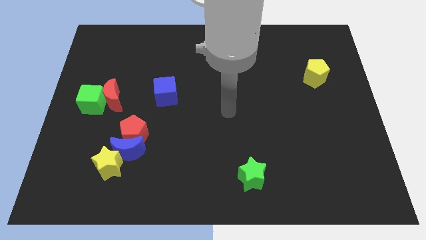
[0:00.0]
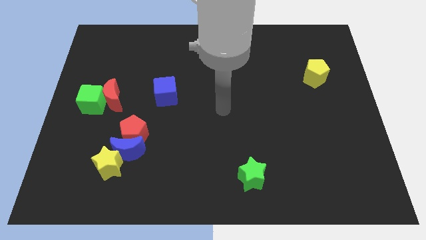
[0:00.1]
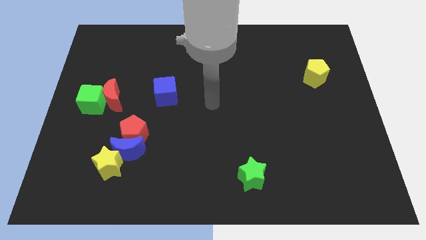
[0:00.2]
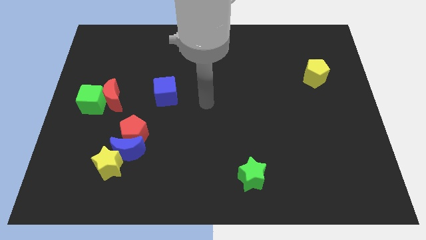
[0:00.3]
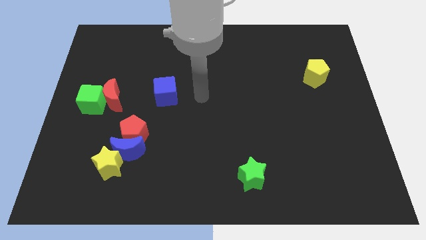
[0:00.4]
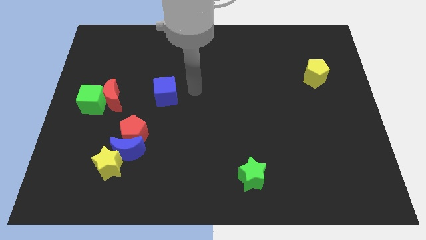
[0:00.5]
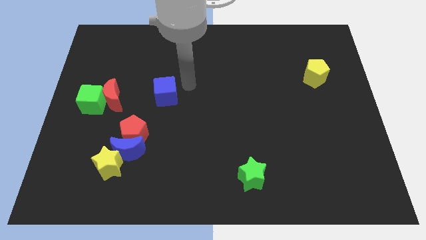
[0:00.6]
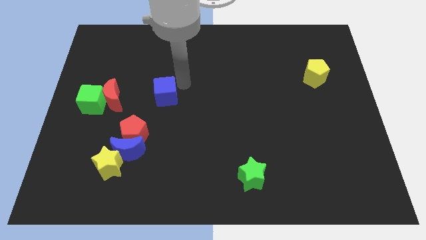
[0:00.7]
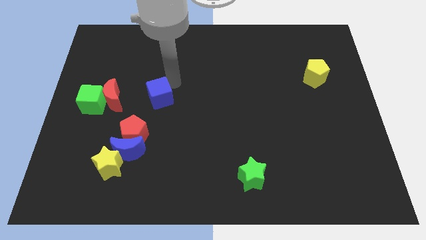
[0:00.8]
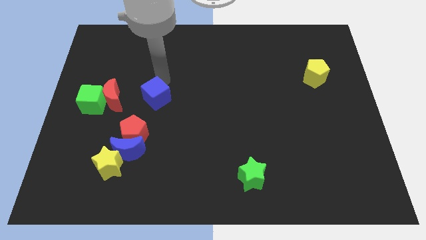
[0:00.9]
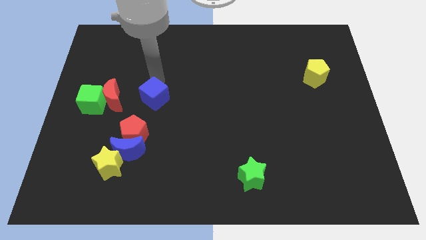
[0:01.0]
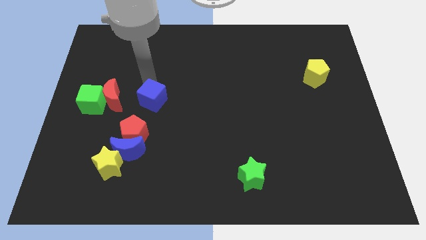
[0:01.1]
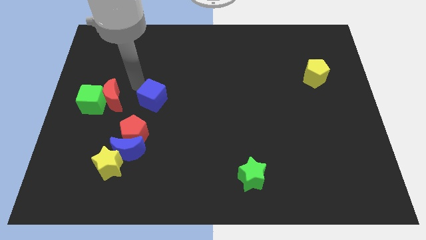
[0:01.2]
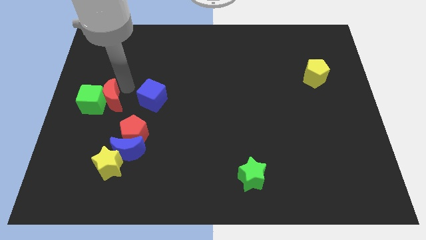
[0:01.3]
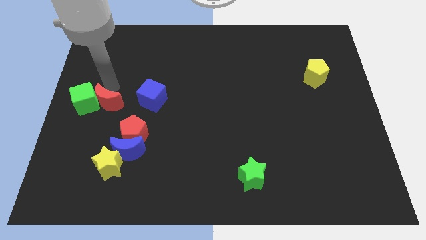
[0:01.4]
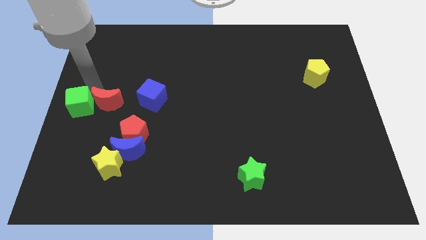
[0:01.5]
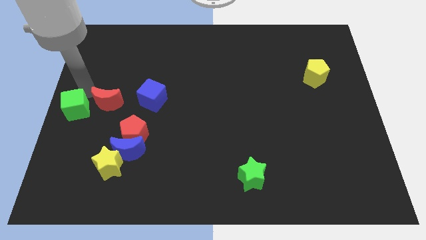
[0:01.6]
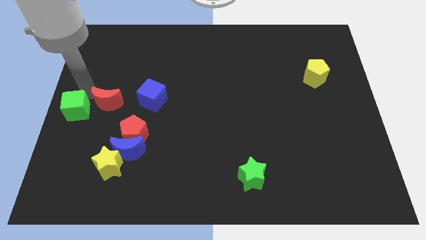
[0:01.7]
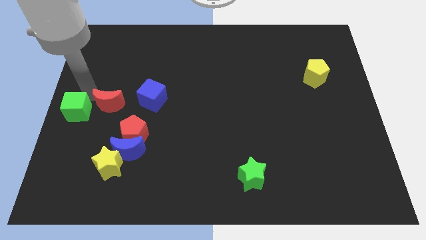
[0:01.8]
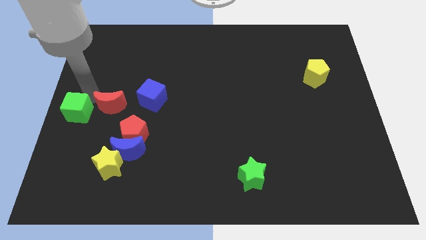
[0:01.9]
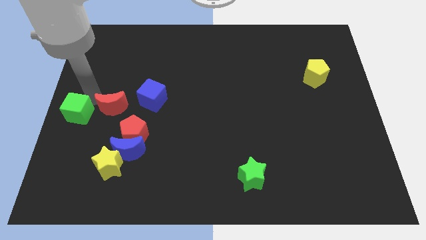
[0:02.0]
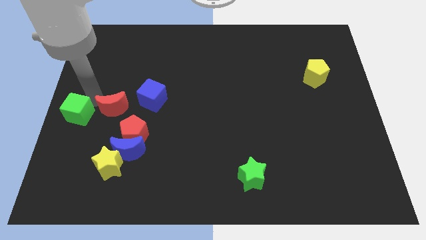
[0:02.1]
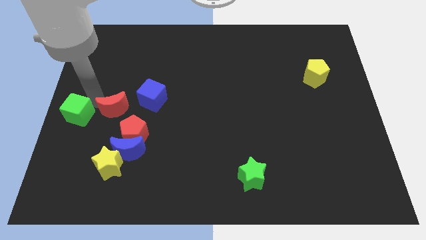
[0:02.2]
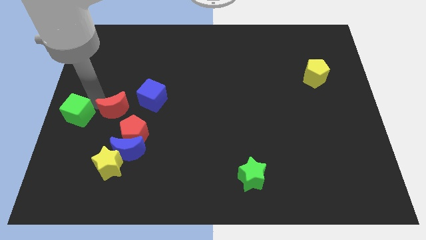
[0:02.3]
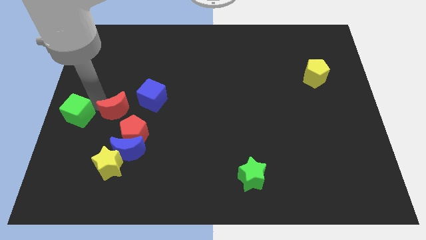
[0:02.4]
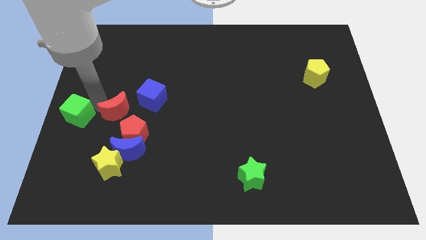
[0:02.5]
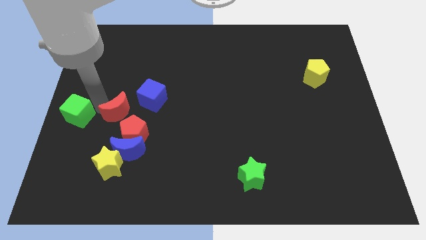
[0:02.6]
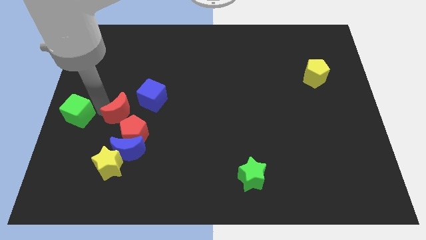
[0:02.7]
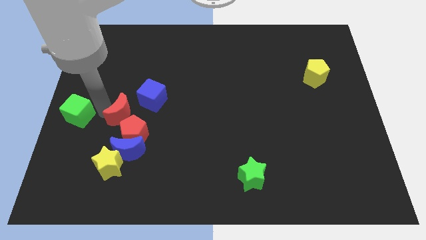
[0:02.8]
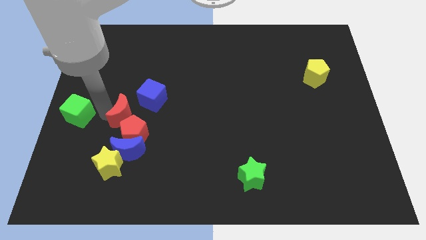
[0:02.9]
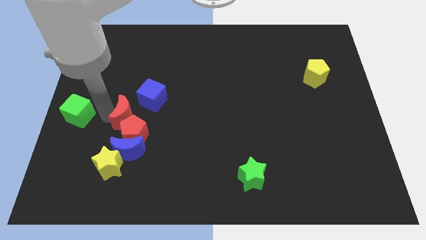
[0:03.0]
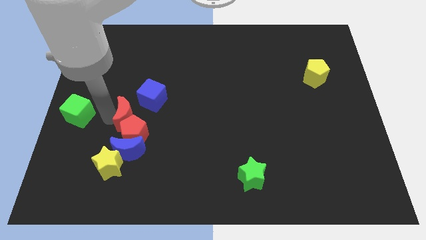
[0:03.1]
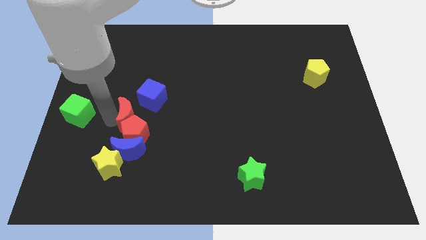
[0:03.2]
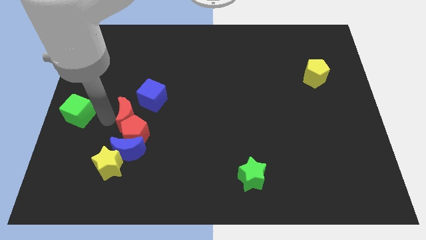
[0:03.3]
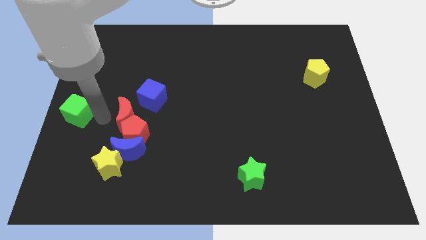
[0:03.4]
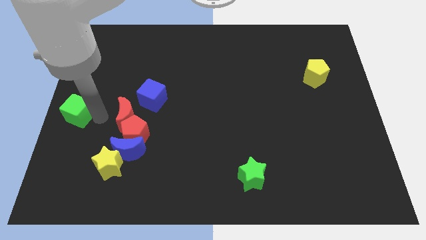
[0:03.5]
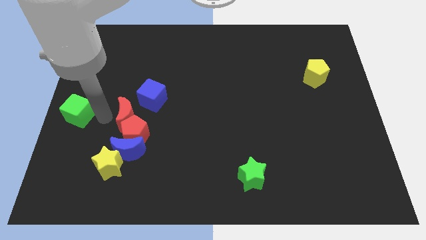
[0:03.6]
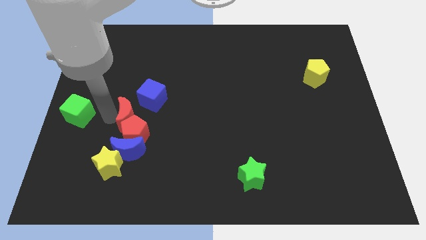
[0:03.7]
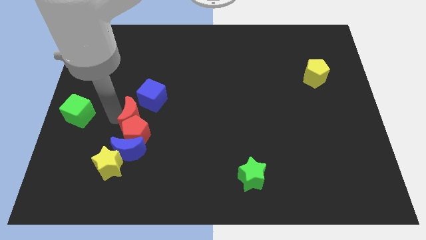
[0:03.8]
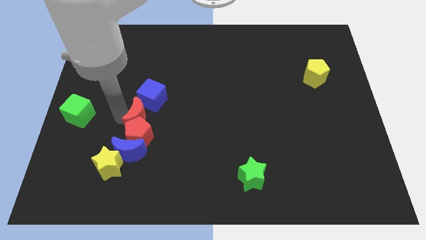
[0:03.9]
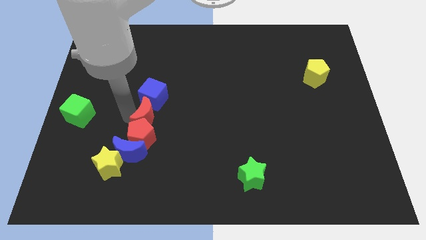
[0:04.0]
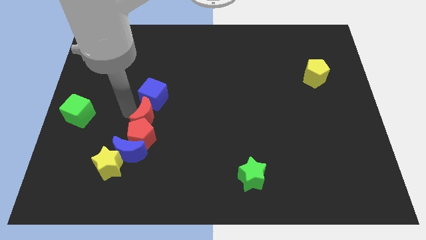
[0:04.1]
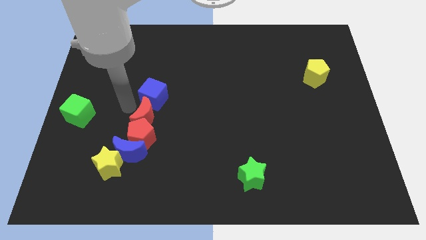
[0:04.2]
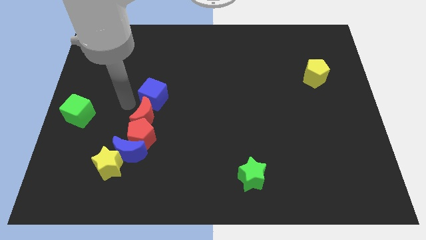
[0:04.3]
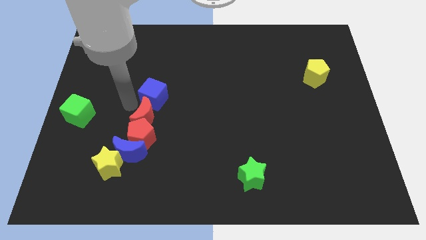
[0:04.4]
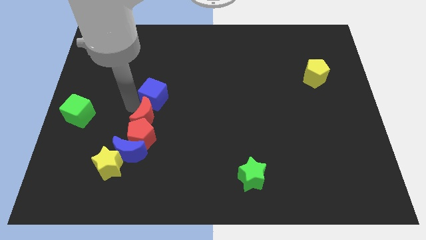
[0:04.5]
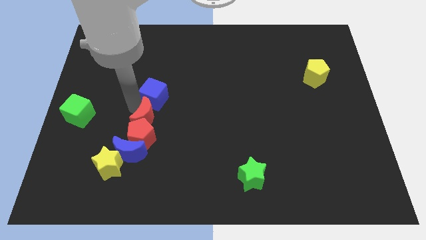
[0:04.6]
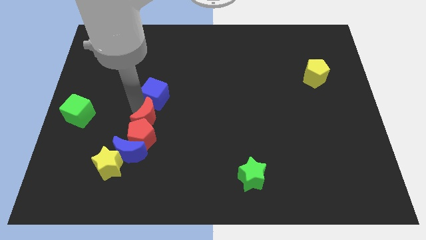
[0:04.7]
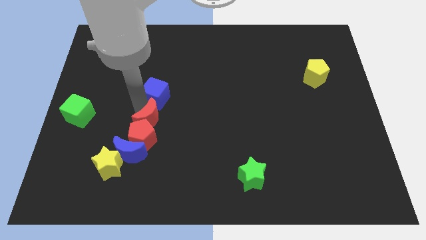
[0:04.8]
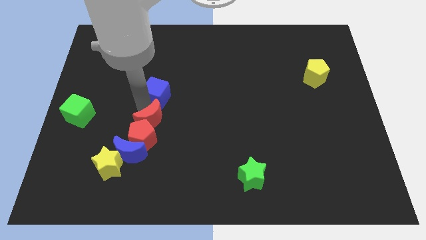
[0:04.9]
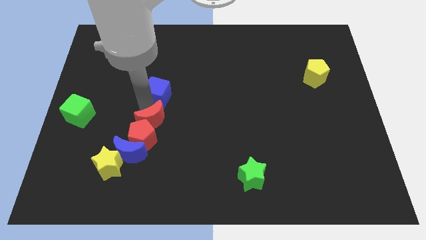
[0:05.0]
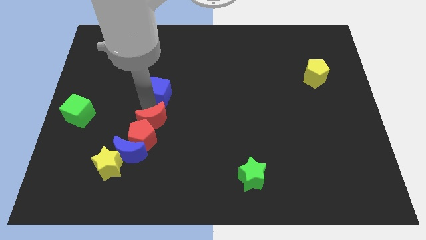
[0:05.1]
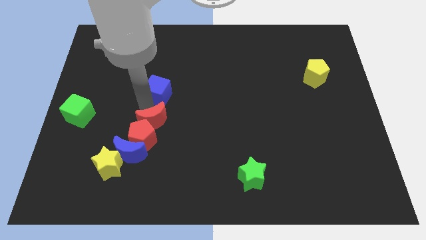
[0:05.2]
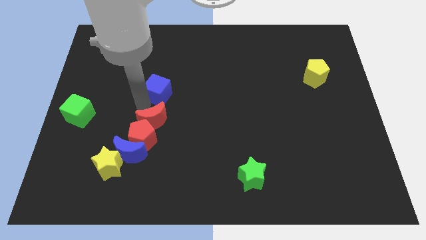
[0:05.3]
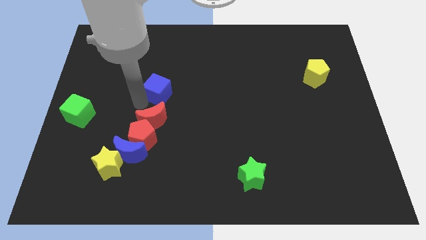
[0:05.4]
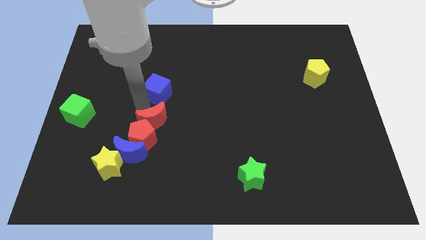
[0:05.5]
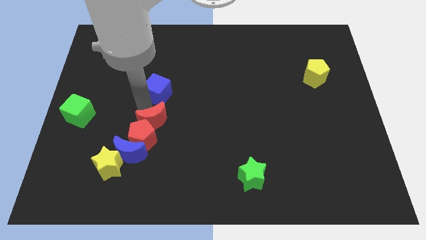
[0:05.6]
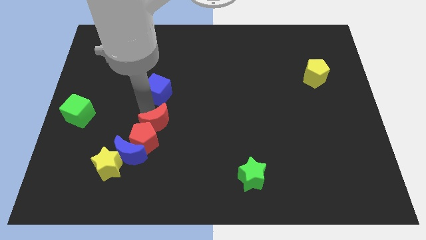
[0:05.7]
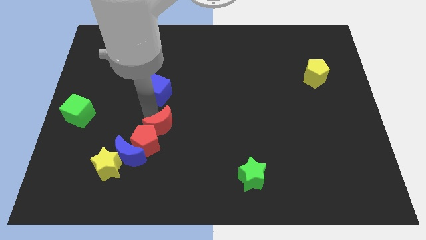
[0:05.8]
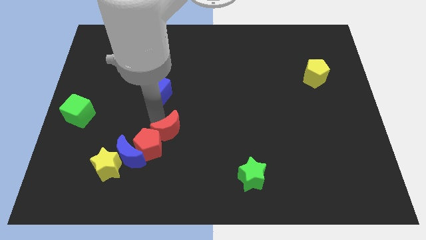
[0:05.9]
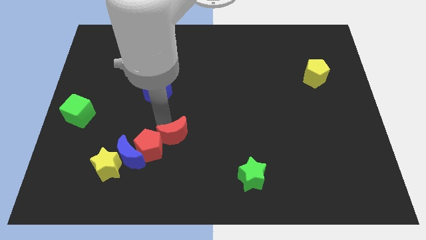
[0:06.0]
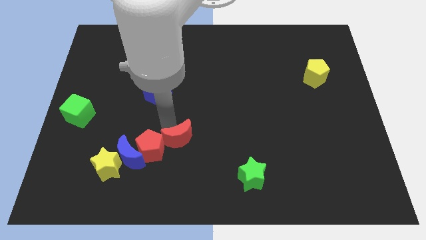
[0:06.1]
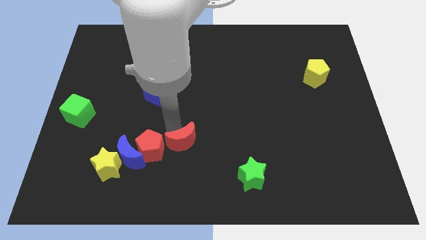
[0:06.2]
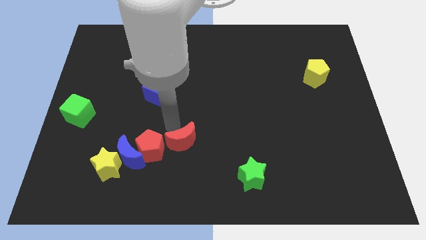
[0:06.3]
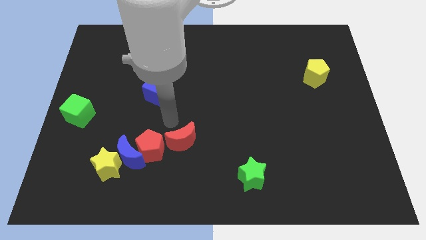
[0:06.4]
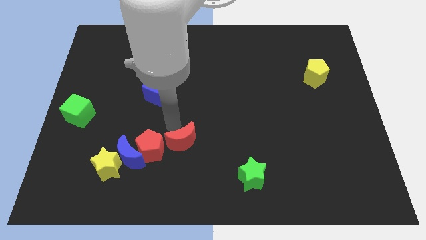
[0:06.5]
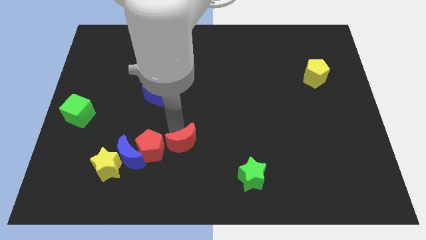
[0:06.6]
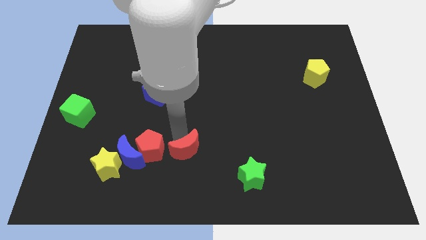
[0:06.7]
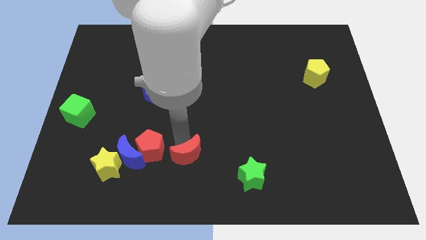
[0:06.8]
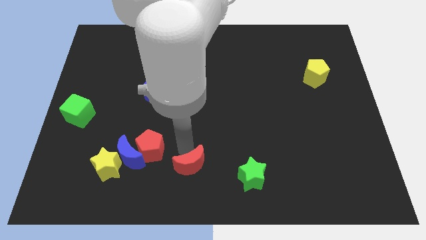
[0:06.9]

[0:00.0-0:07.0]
push the red moon to the bottom
